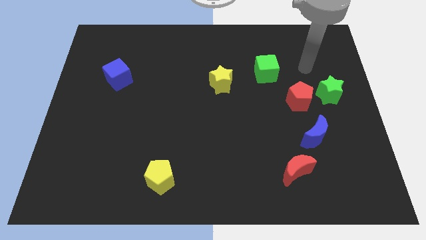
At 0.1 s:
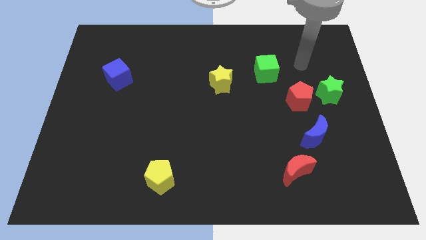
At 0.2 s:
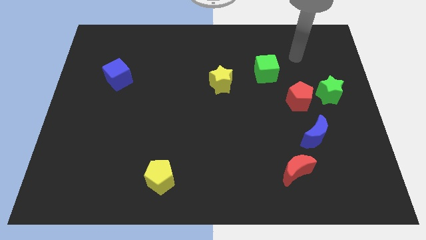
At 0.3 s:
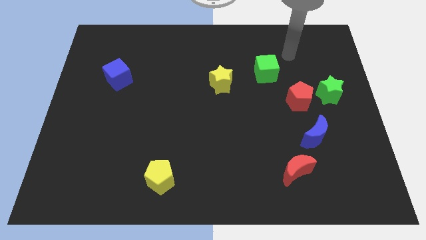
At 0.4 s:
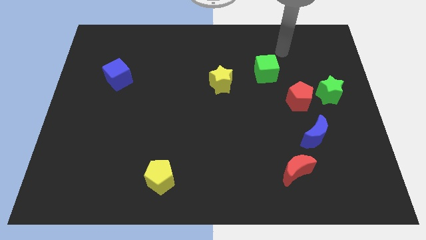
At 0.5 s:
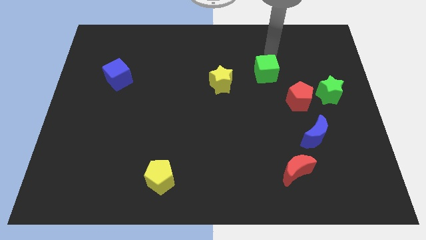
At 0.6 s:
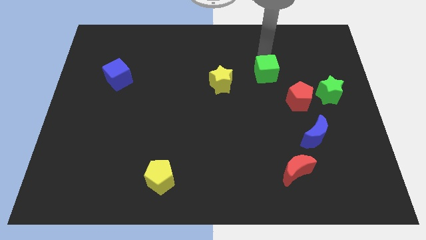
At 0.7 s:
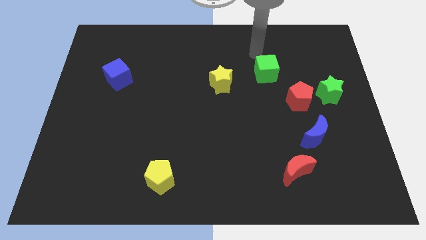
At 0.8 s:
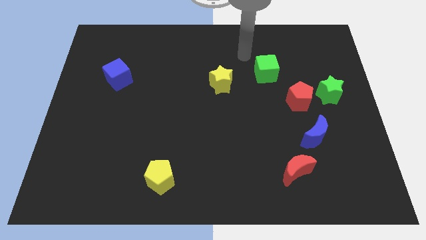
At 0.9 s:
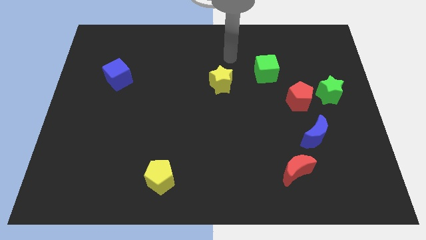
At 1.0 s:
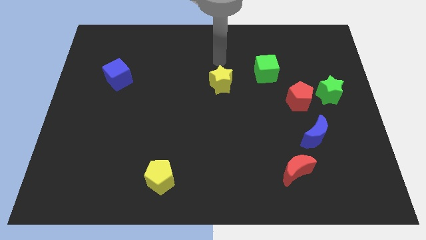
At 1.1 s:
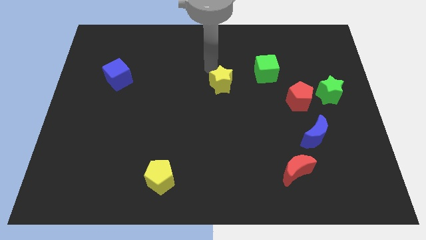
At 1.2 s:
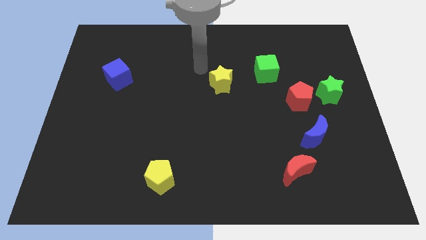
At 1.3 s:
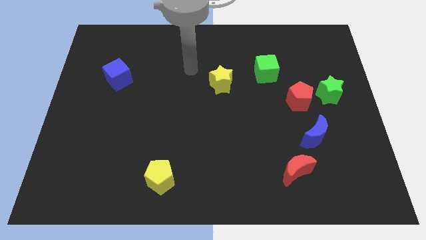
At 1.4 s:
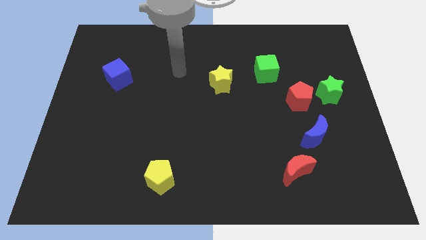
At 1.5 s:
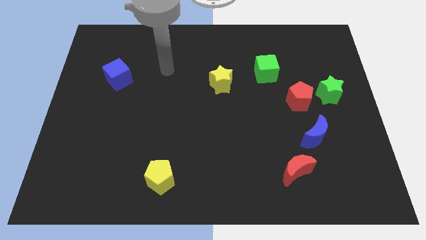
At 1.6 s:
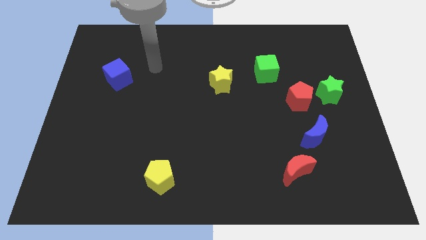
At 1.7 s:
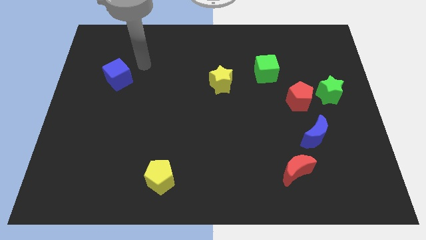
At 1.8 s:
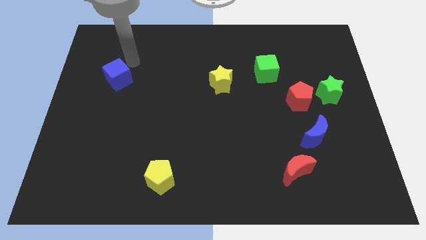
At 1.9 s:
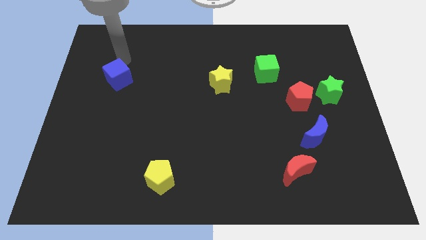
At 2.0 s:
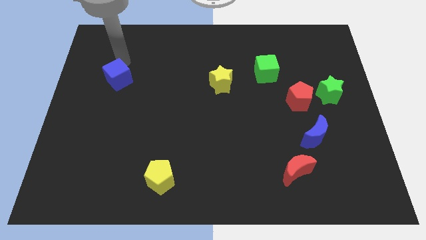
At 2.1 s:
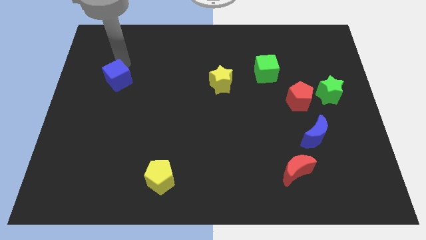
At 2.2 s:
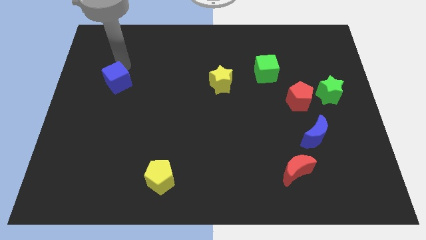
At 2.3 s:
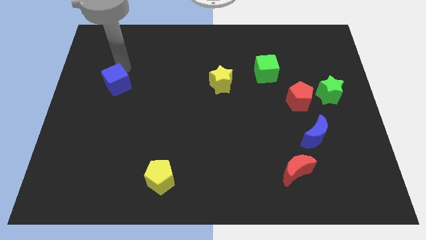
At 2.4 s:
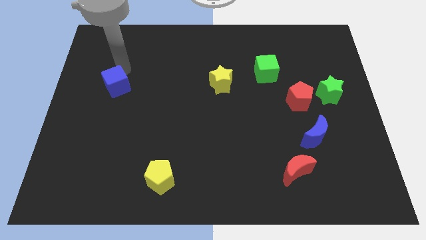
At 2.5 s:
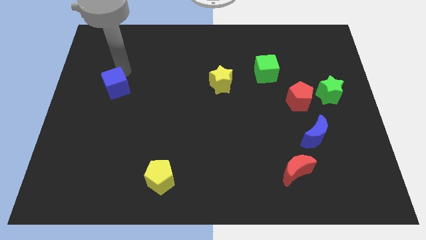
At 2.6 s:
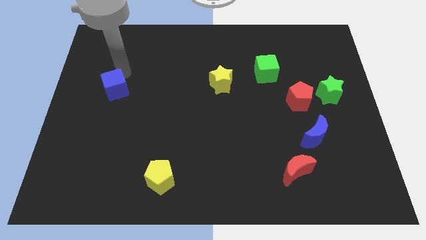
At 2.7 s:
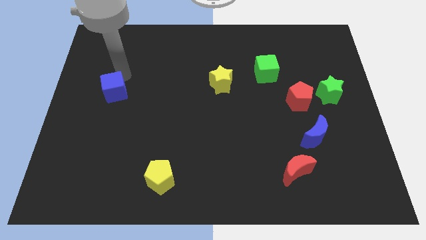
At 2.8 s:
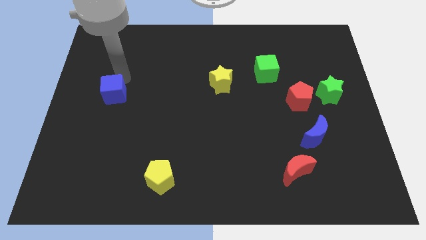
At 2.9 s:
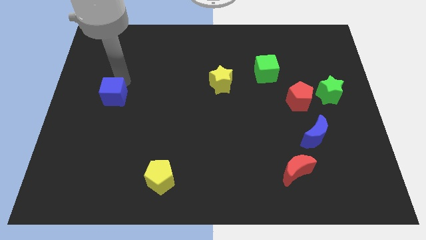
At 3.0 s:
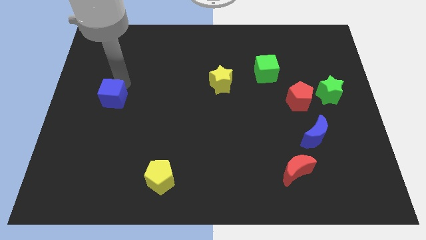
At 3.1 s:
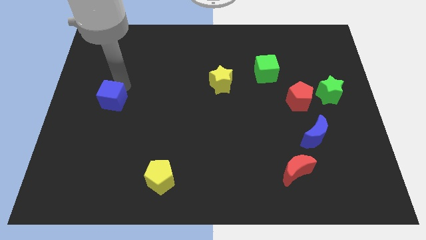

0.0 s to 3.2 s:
slightly move the blue cube down

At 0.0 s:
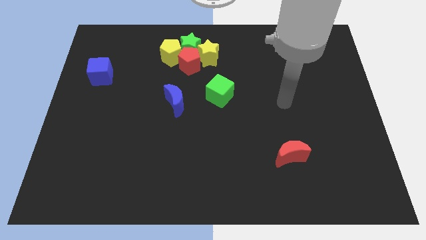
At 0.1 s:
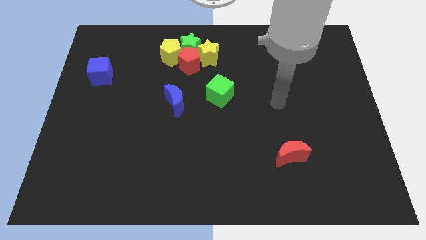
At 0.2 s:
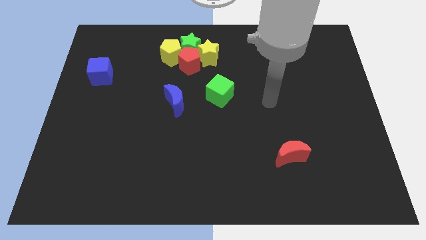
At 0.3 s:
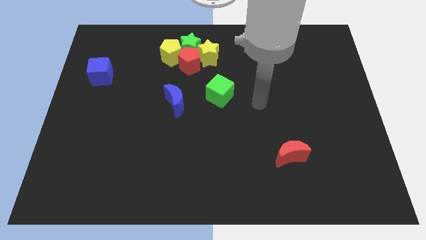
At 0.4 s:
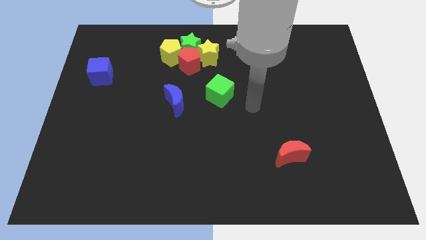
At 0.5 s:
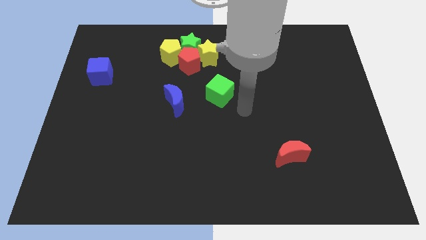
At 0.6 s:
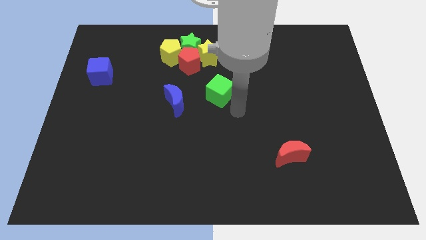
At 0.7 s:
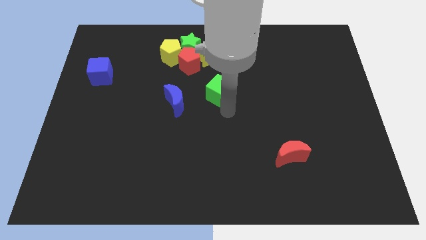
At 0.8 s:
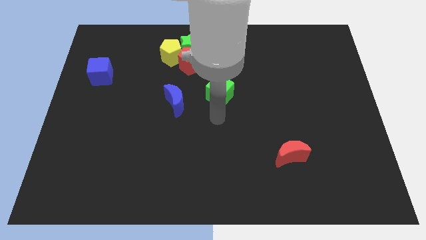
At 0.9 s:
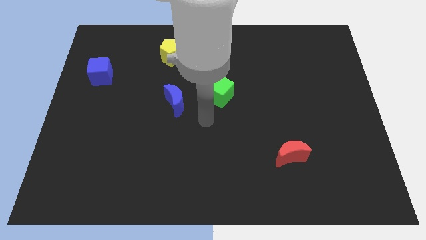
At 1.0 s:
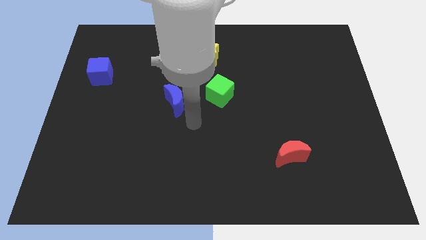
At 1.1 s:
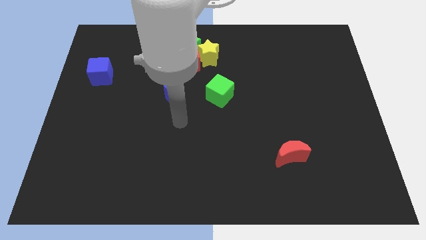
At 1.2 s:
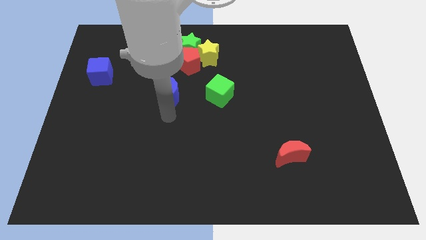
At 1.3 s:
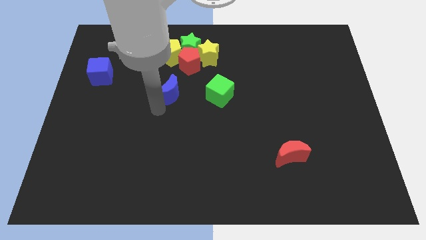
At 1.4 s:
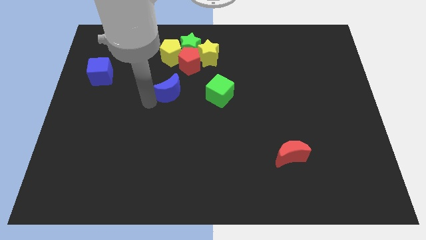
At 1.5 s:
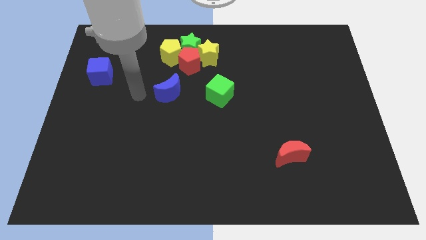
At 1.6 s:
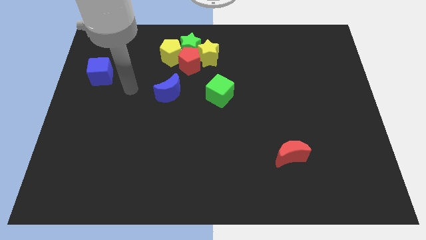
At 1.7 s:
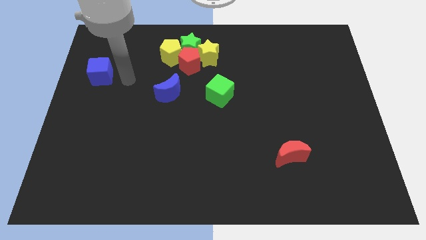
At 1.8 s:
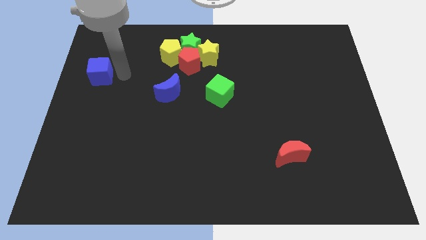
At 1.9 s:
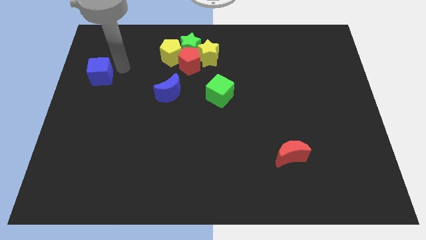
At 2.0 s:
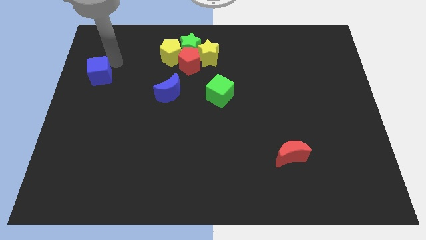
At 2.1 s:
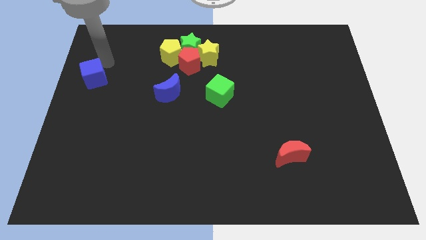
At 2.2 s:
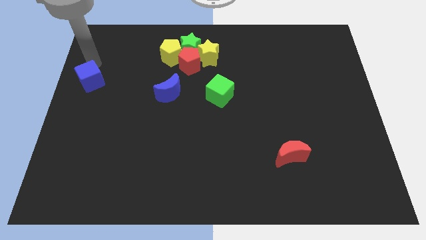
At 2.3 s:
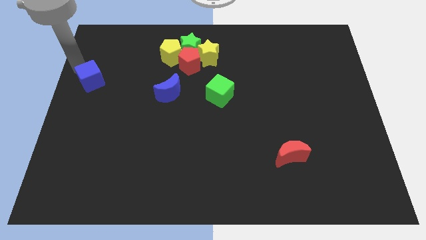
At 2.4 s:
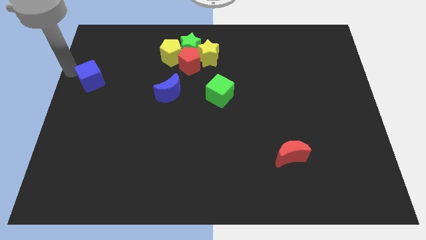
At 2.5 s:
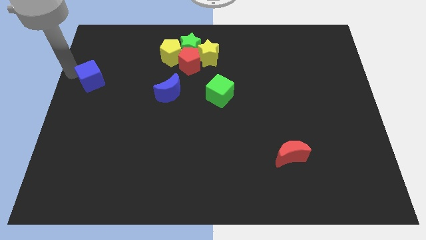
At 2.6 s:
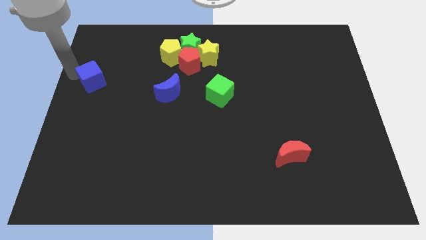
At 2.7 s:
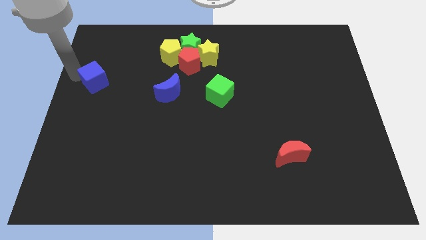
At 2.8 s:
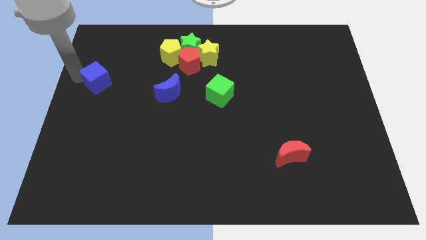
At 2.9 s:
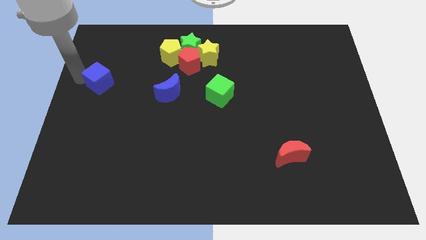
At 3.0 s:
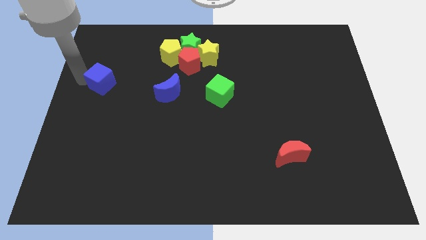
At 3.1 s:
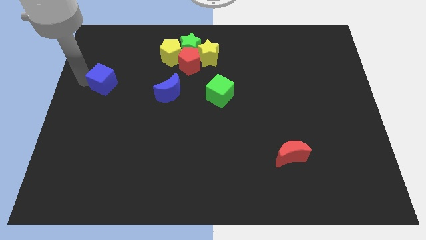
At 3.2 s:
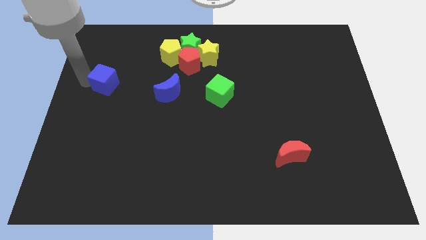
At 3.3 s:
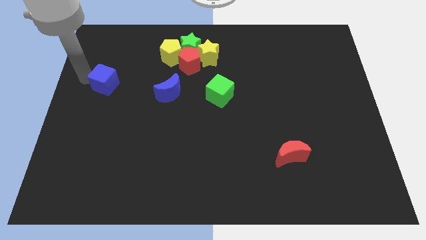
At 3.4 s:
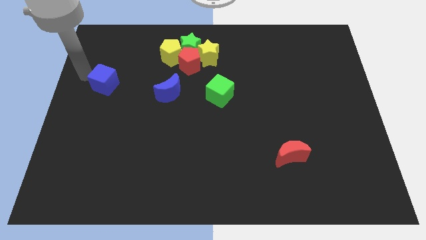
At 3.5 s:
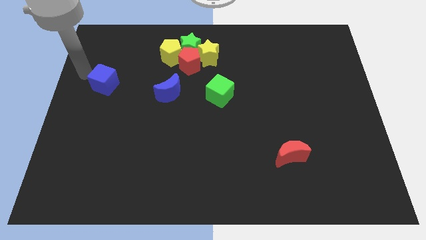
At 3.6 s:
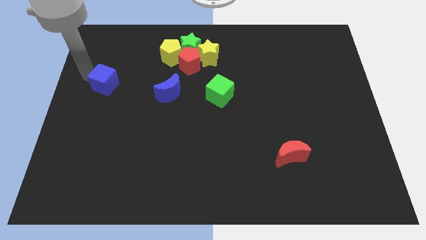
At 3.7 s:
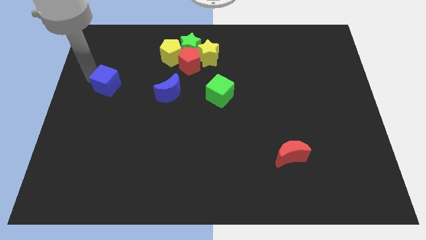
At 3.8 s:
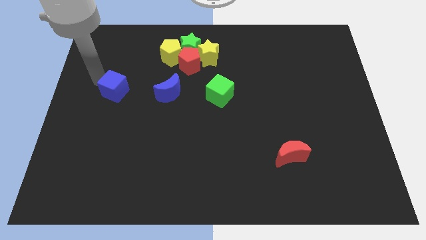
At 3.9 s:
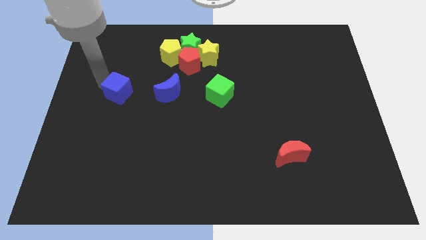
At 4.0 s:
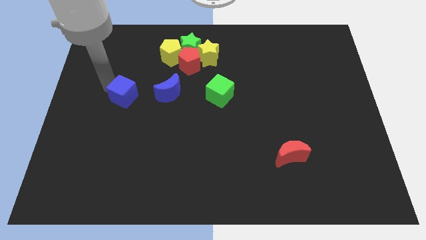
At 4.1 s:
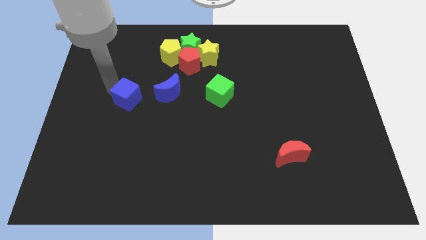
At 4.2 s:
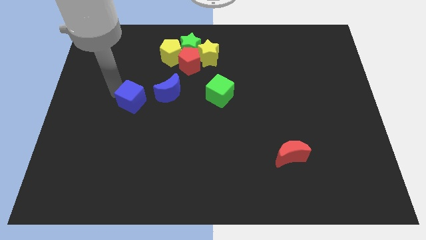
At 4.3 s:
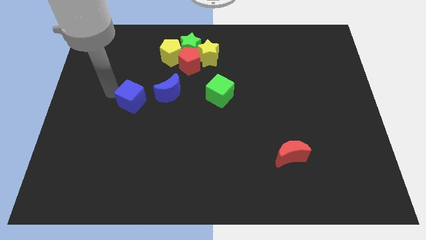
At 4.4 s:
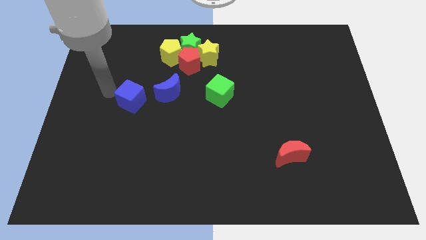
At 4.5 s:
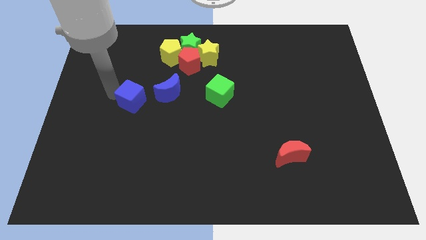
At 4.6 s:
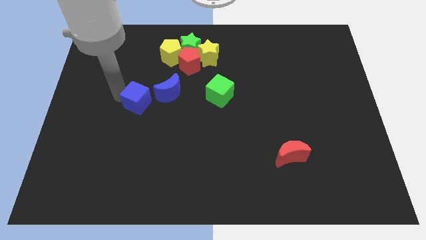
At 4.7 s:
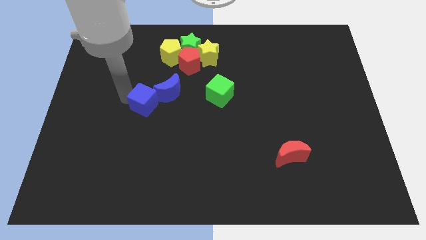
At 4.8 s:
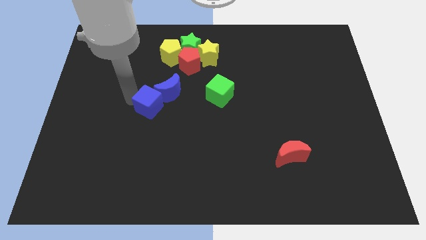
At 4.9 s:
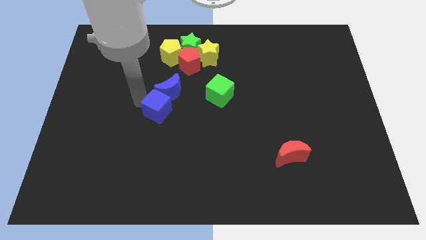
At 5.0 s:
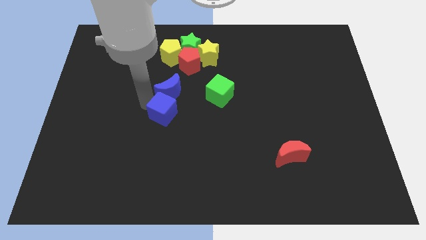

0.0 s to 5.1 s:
move the blue cube down and then to the right
